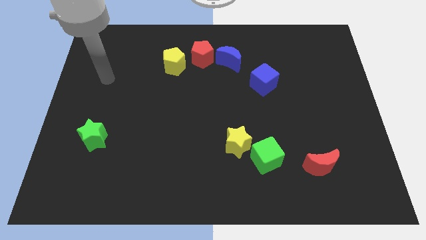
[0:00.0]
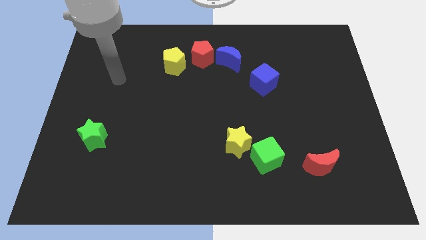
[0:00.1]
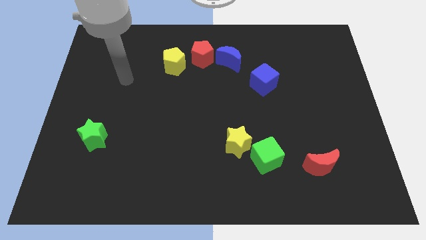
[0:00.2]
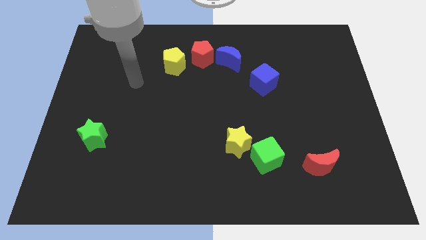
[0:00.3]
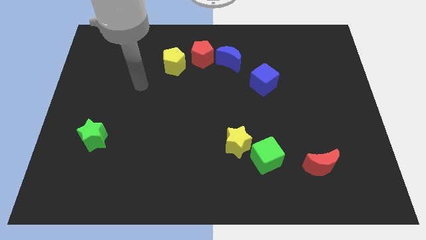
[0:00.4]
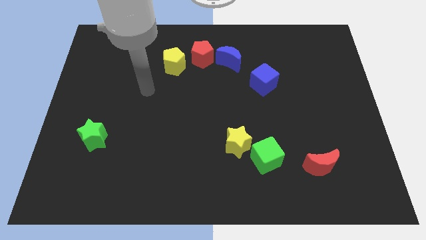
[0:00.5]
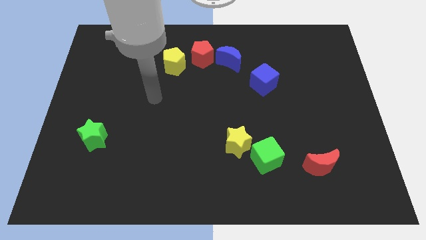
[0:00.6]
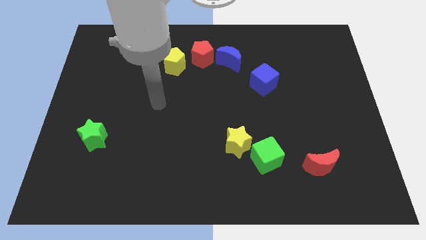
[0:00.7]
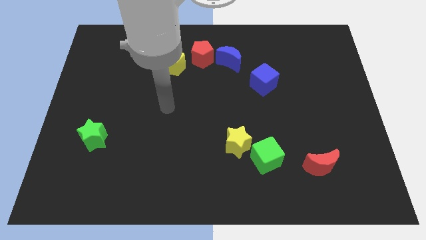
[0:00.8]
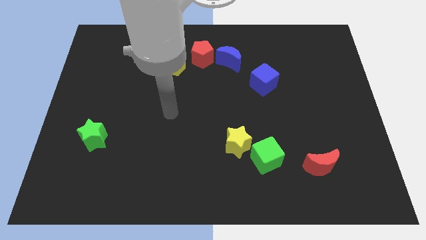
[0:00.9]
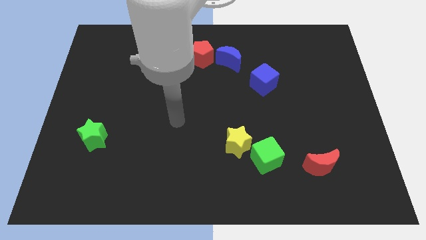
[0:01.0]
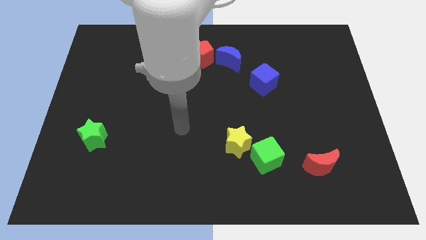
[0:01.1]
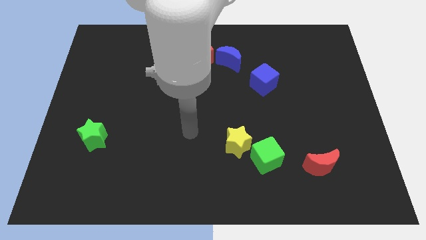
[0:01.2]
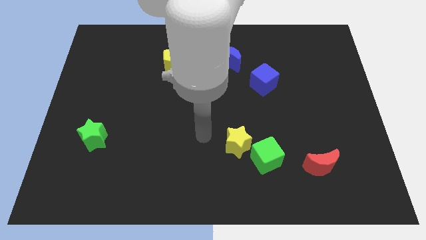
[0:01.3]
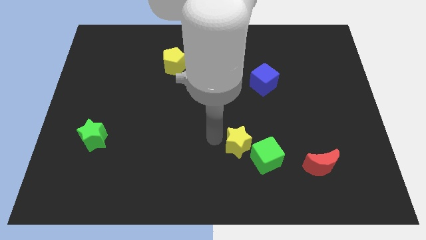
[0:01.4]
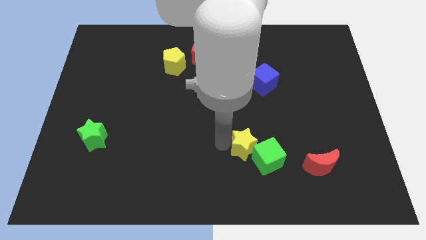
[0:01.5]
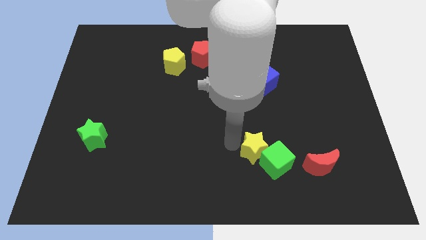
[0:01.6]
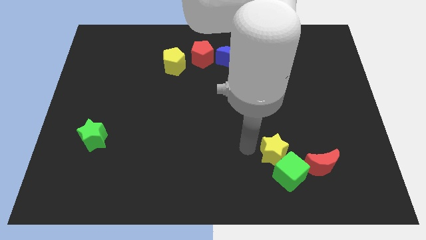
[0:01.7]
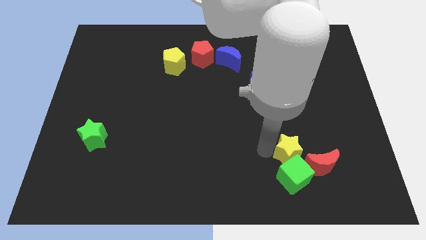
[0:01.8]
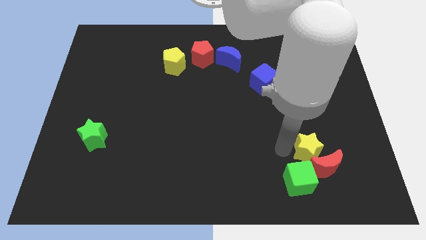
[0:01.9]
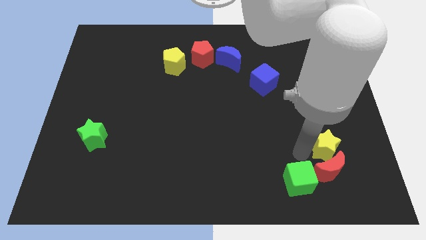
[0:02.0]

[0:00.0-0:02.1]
pull the green cube apart from the yellow star

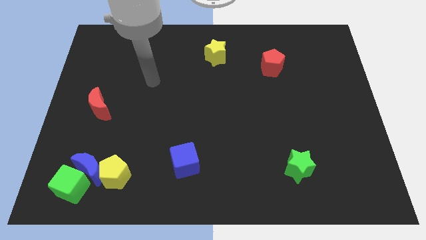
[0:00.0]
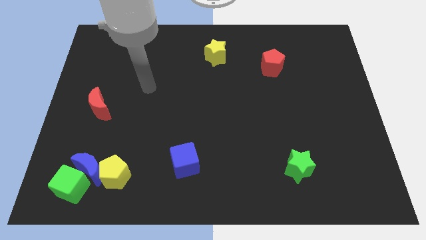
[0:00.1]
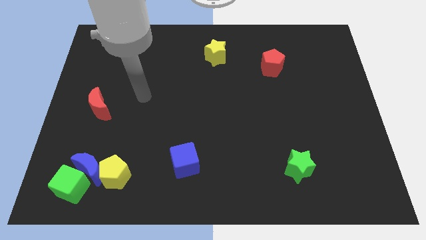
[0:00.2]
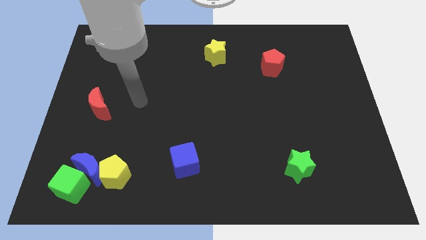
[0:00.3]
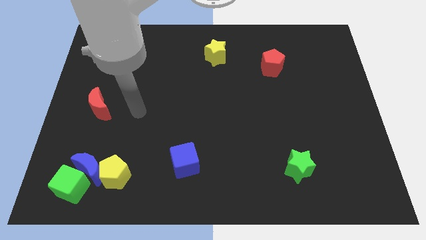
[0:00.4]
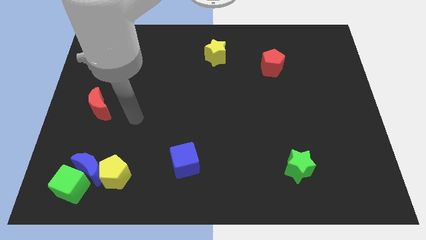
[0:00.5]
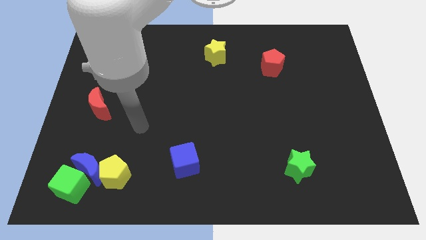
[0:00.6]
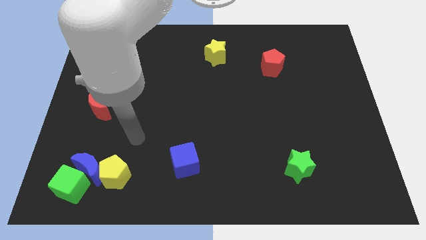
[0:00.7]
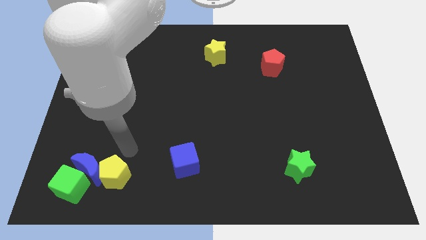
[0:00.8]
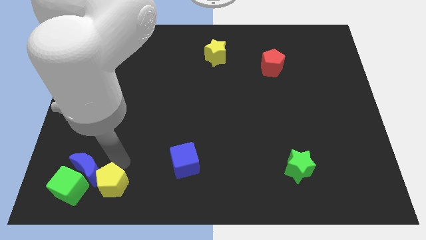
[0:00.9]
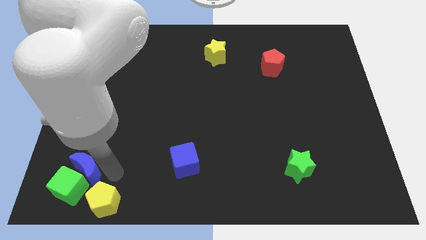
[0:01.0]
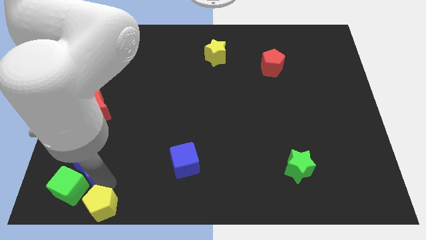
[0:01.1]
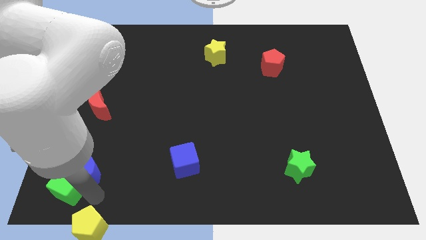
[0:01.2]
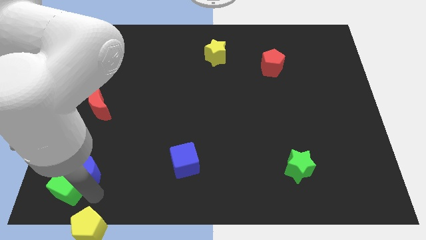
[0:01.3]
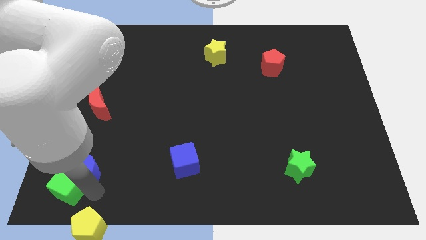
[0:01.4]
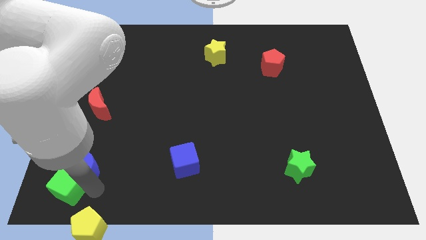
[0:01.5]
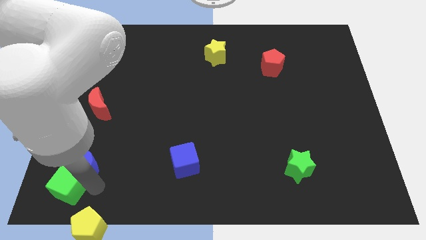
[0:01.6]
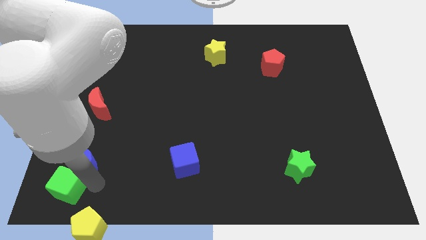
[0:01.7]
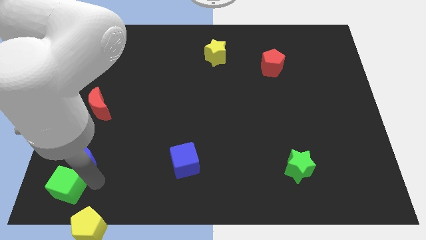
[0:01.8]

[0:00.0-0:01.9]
move the blue moon away from the green cube and yellow pentagon

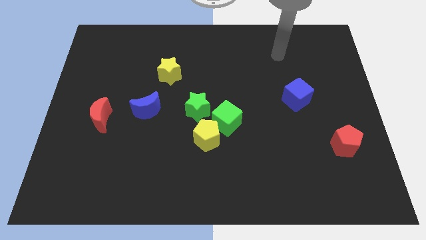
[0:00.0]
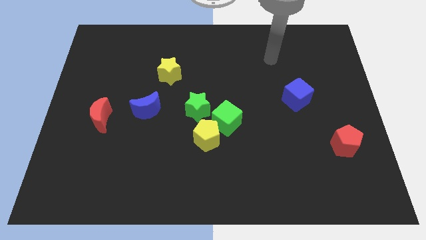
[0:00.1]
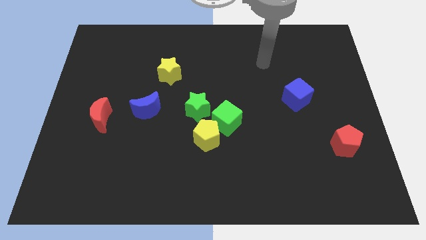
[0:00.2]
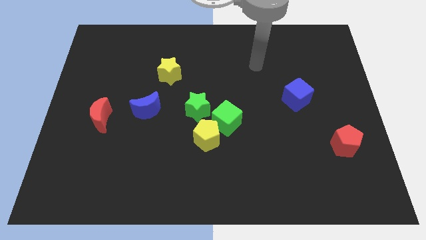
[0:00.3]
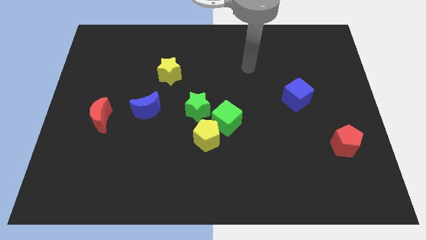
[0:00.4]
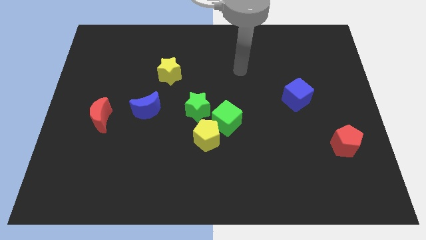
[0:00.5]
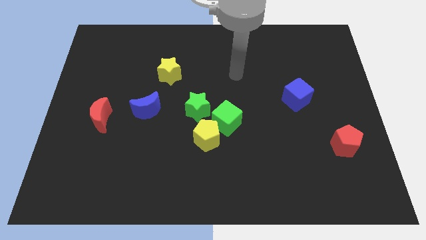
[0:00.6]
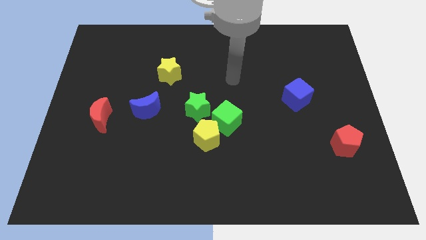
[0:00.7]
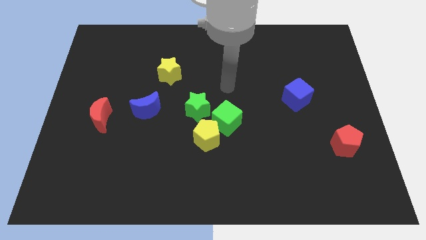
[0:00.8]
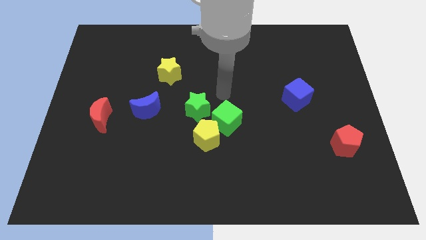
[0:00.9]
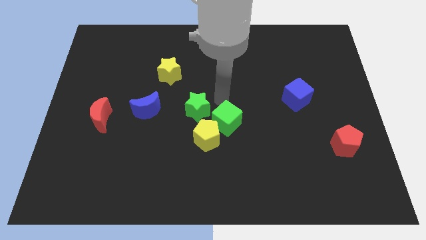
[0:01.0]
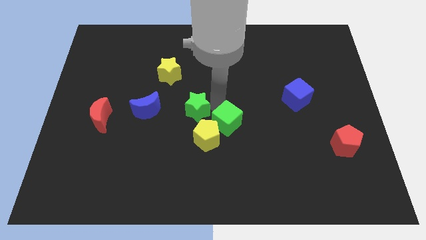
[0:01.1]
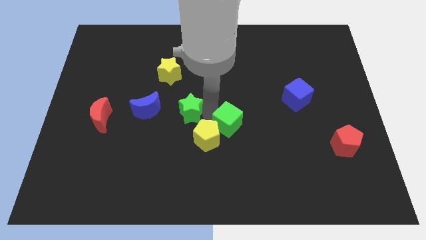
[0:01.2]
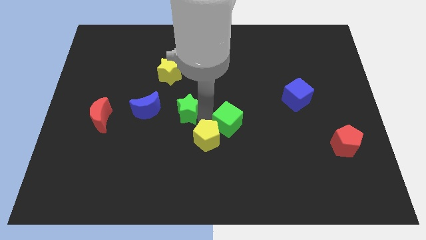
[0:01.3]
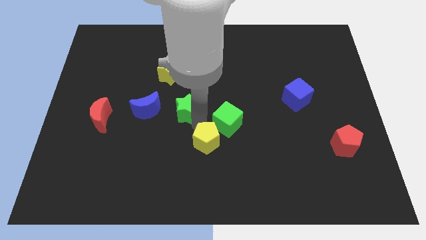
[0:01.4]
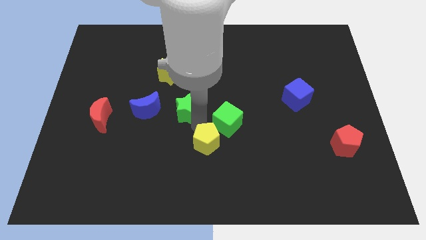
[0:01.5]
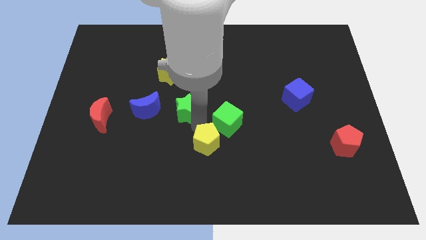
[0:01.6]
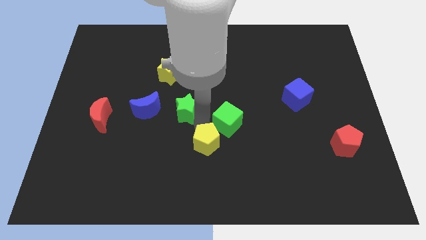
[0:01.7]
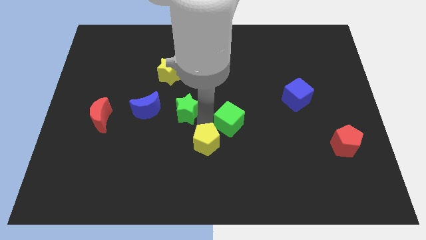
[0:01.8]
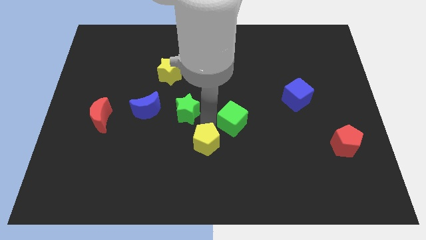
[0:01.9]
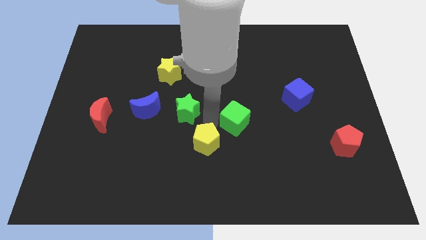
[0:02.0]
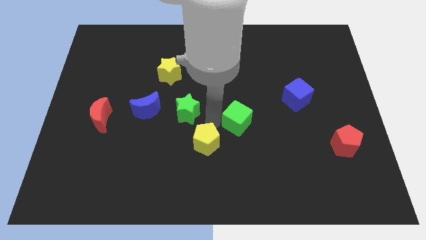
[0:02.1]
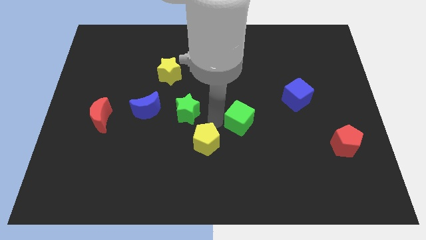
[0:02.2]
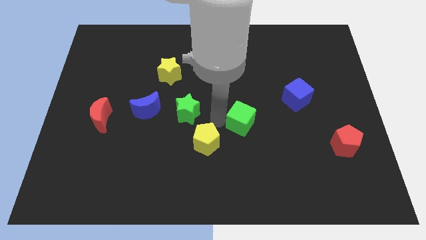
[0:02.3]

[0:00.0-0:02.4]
move the green cube away from the yellow pentagon and green star

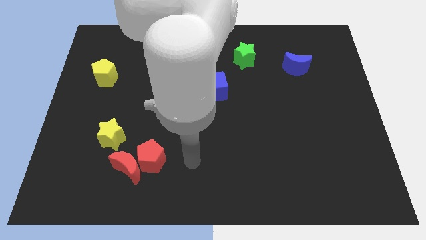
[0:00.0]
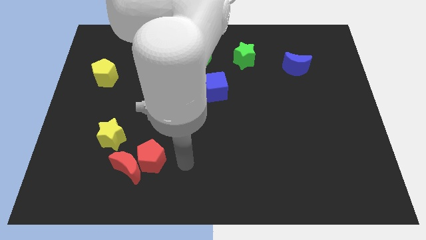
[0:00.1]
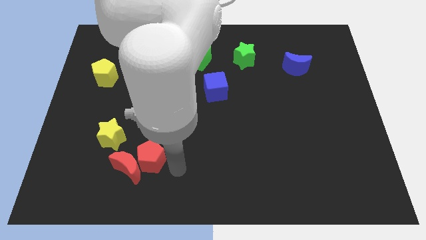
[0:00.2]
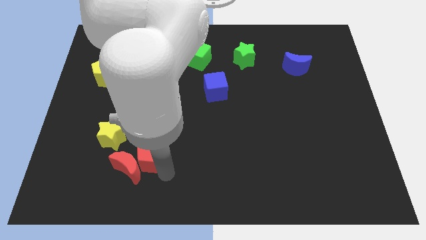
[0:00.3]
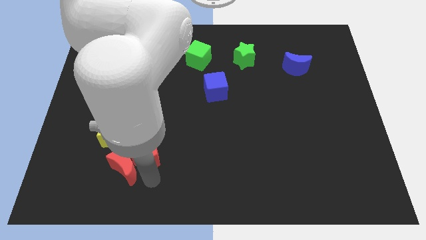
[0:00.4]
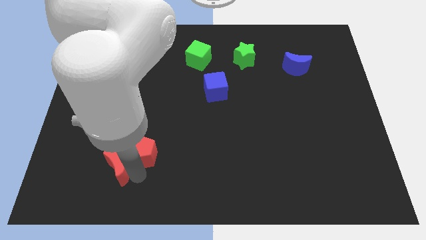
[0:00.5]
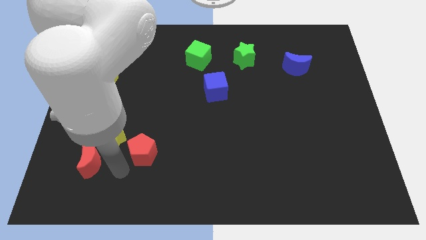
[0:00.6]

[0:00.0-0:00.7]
move the red pentagon away from the red moon

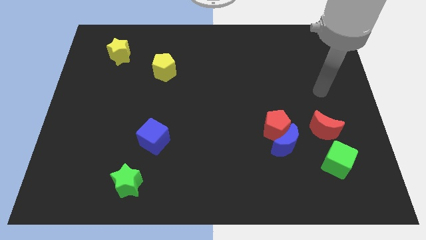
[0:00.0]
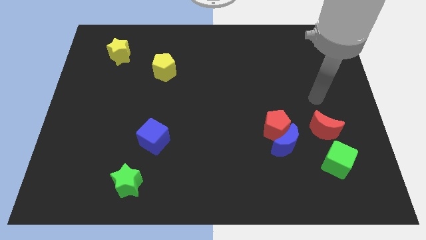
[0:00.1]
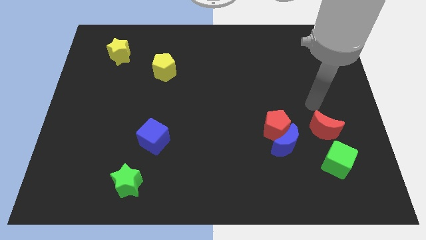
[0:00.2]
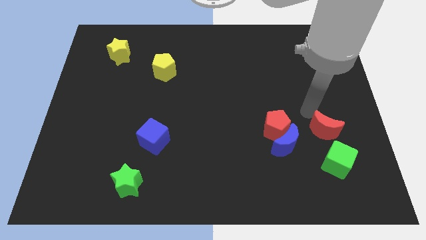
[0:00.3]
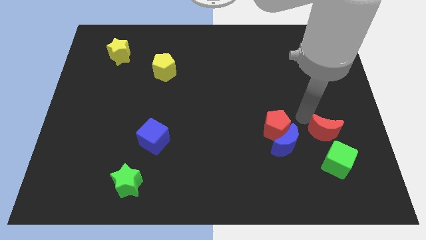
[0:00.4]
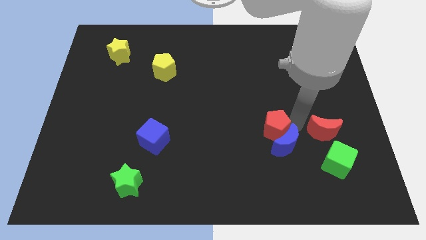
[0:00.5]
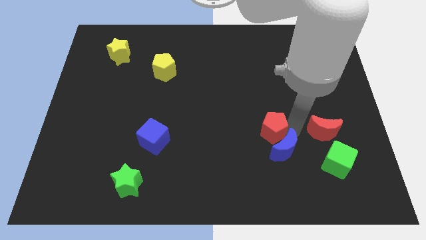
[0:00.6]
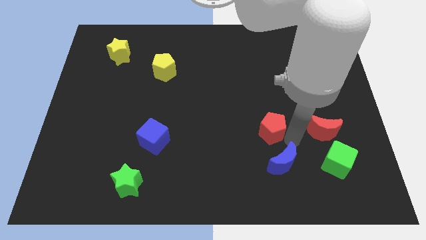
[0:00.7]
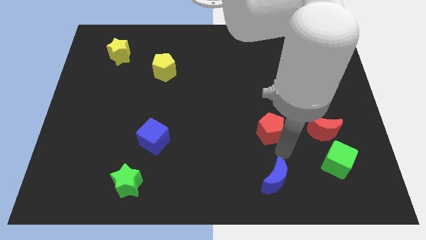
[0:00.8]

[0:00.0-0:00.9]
separate the red pentagon from the blue moon

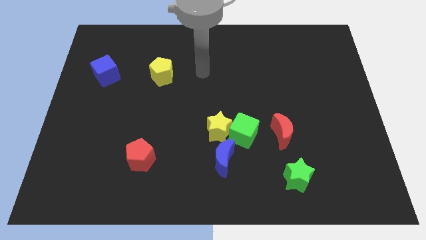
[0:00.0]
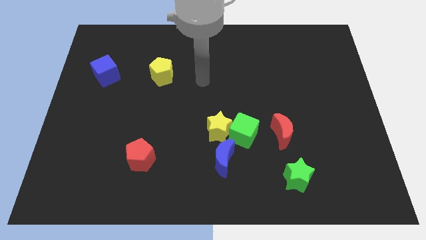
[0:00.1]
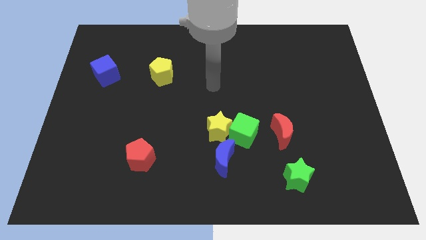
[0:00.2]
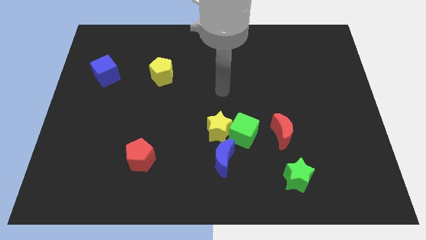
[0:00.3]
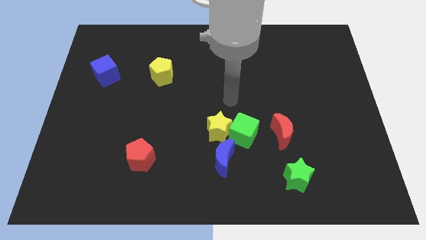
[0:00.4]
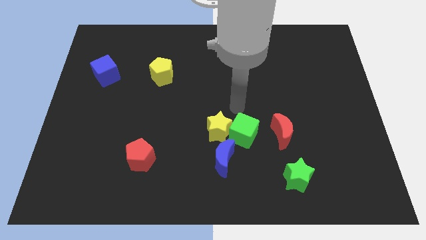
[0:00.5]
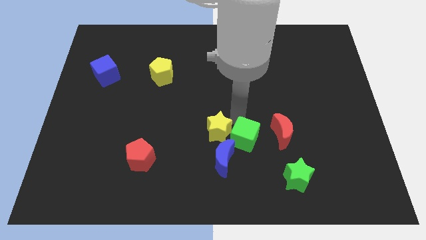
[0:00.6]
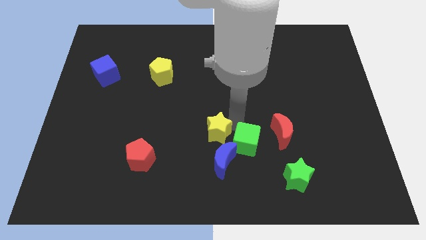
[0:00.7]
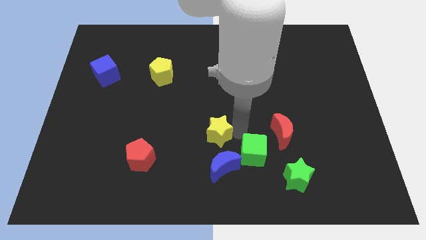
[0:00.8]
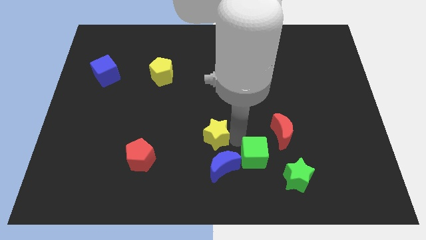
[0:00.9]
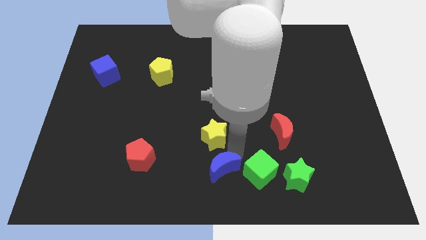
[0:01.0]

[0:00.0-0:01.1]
pull the yellow star apart from the green cube and blue moon
